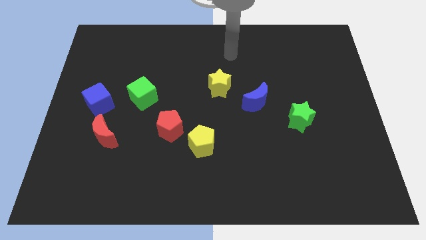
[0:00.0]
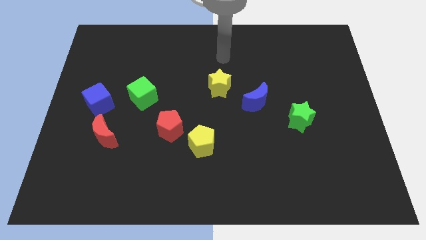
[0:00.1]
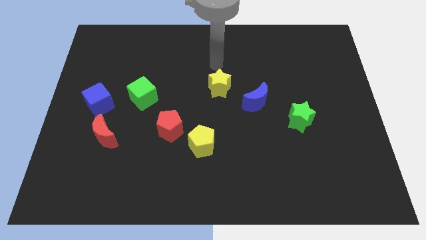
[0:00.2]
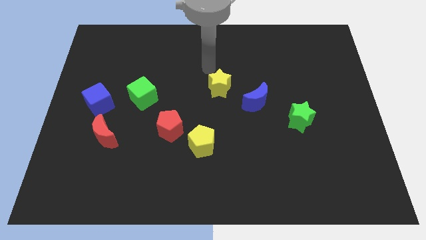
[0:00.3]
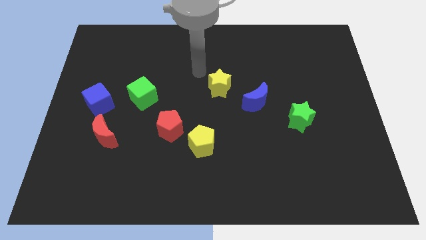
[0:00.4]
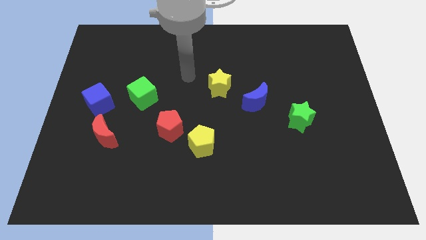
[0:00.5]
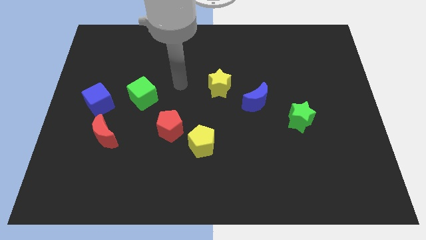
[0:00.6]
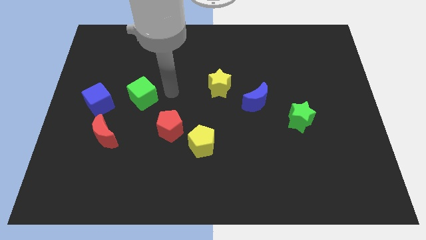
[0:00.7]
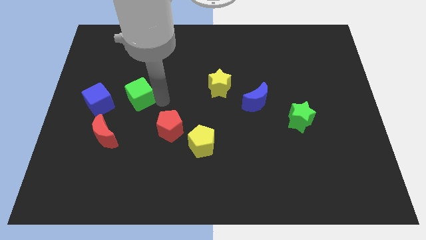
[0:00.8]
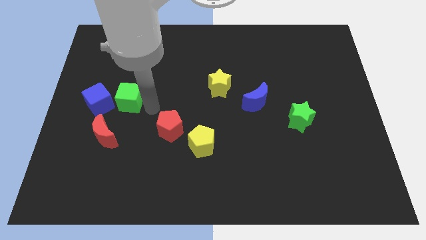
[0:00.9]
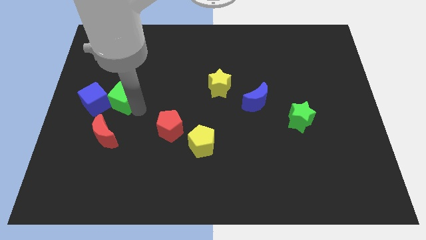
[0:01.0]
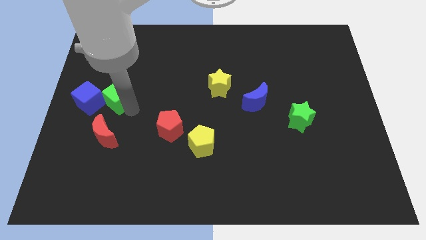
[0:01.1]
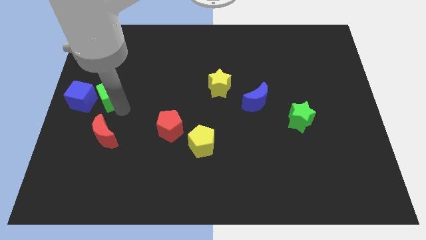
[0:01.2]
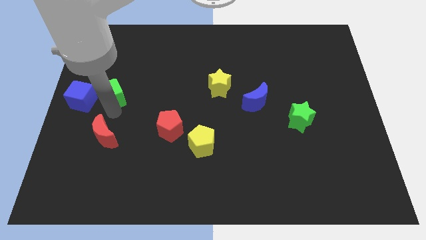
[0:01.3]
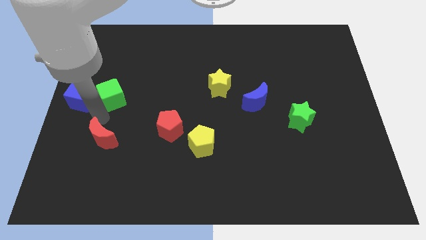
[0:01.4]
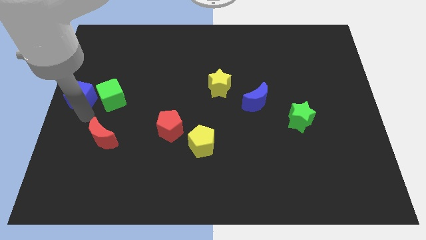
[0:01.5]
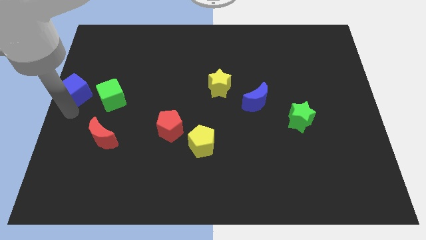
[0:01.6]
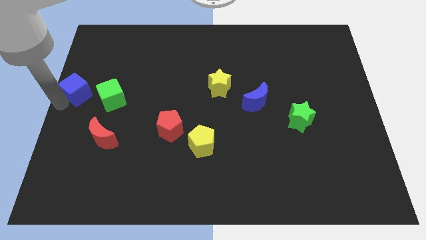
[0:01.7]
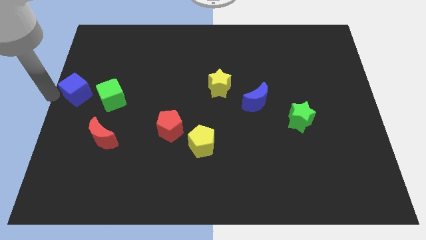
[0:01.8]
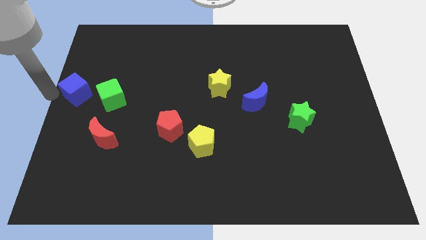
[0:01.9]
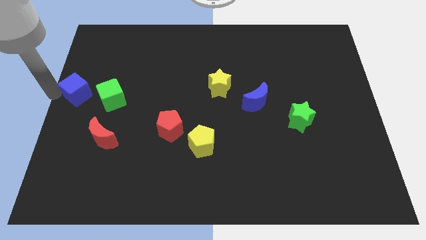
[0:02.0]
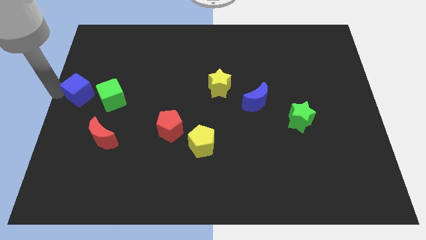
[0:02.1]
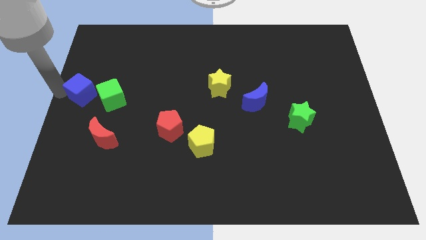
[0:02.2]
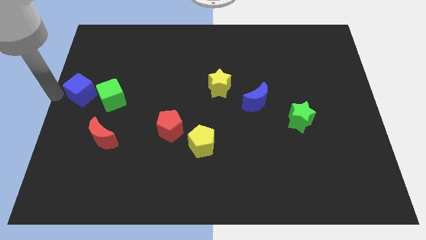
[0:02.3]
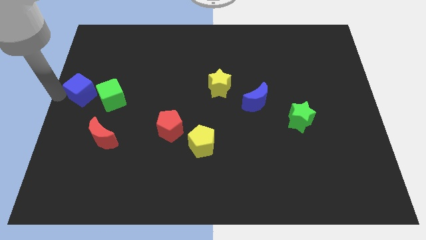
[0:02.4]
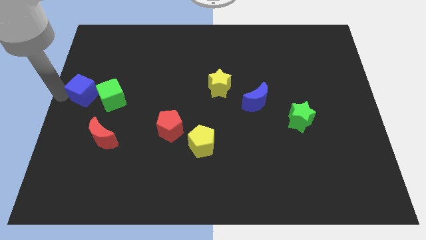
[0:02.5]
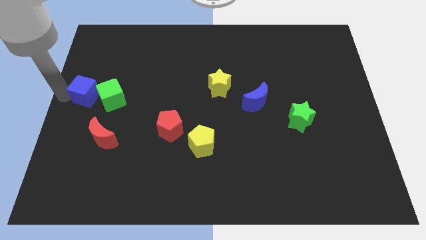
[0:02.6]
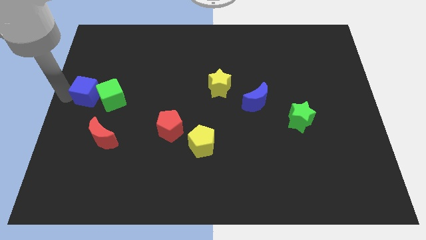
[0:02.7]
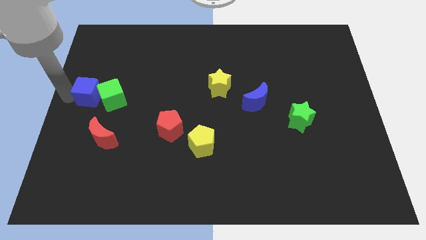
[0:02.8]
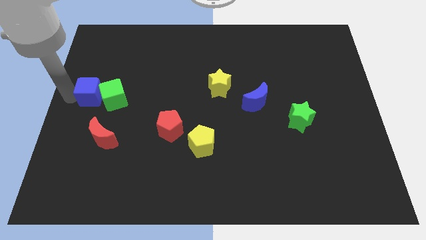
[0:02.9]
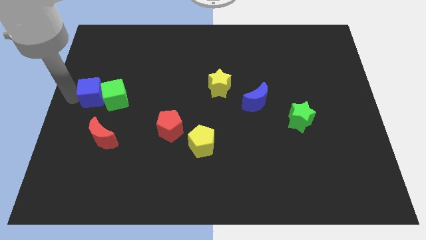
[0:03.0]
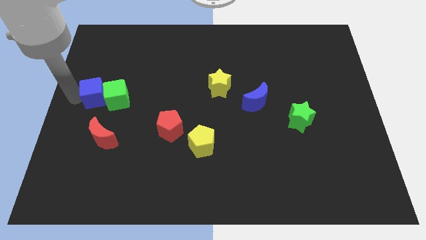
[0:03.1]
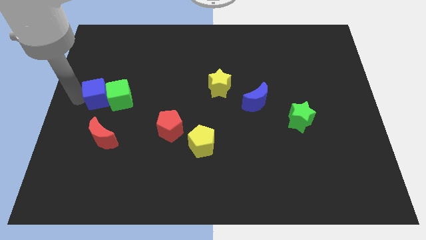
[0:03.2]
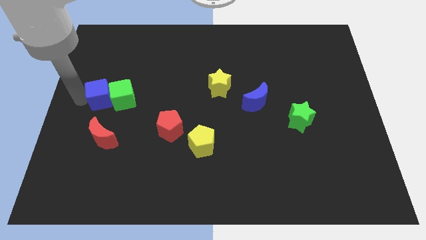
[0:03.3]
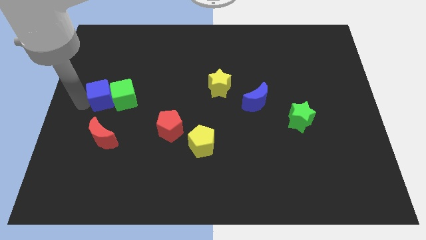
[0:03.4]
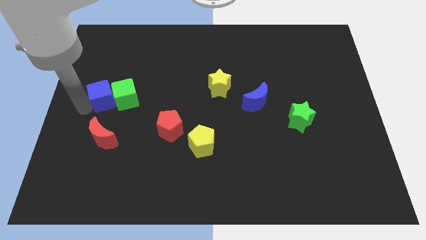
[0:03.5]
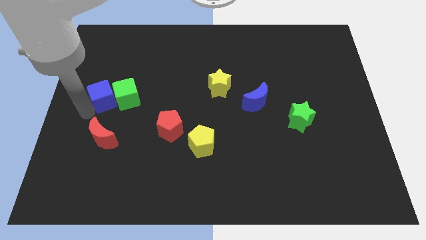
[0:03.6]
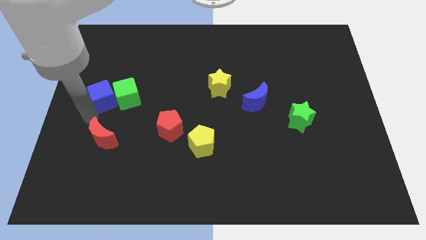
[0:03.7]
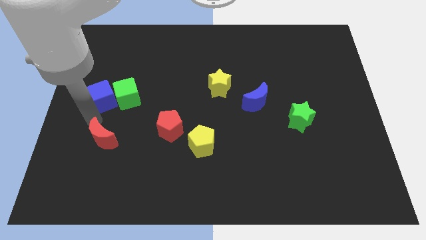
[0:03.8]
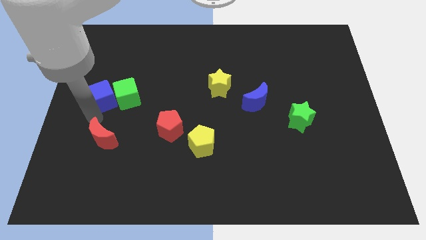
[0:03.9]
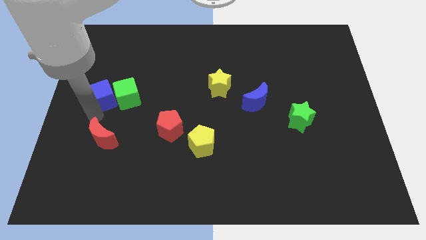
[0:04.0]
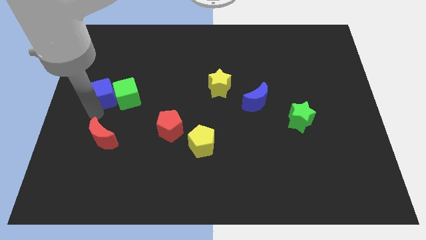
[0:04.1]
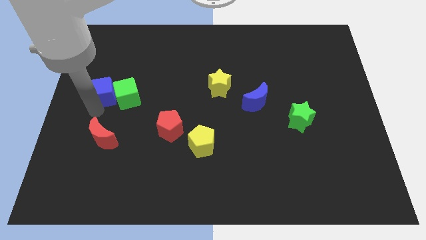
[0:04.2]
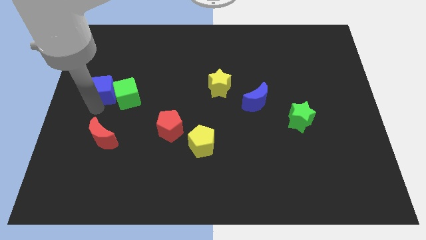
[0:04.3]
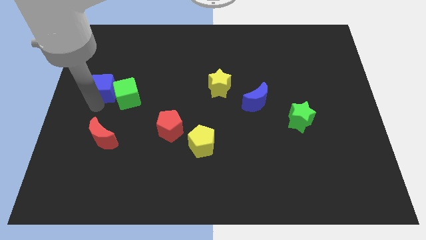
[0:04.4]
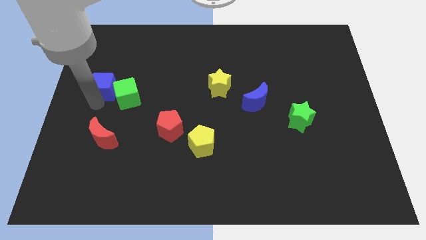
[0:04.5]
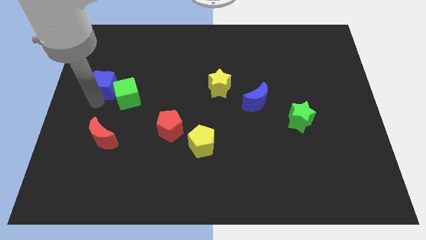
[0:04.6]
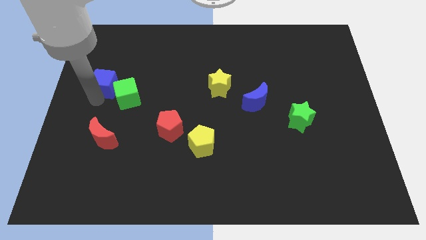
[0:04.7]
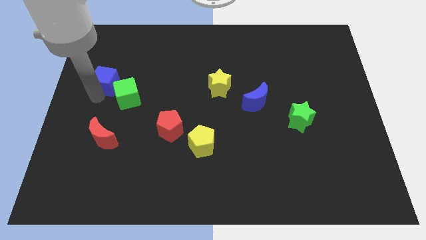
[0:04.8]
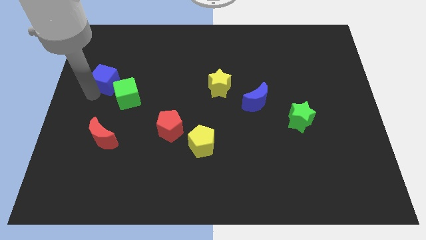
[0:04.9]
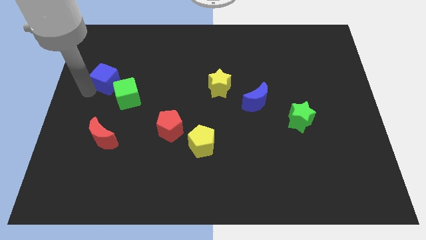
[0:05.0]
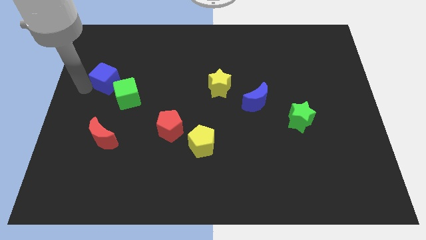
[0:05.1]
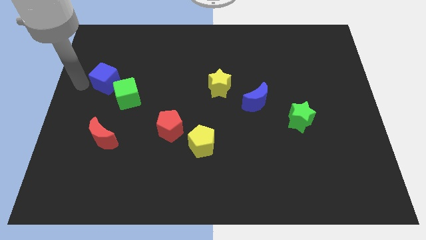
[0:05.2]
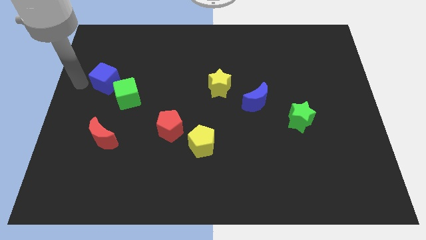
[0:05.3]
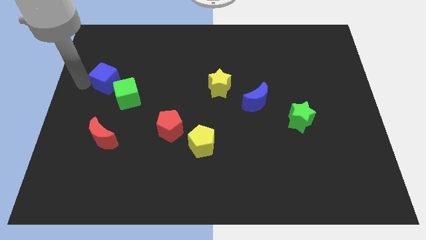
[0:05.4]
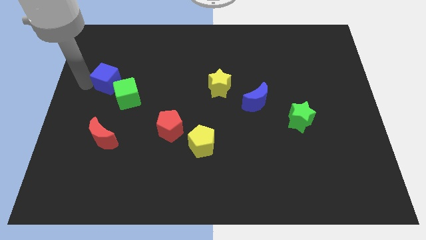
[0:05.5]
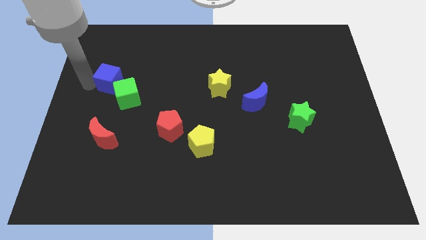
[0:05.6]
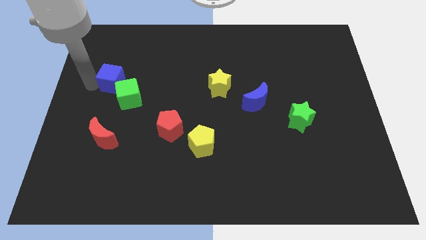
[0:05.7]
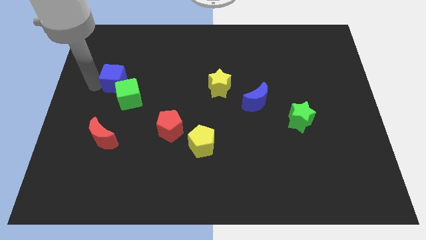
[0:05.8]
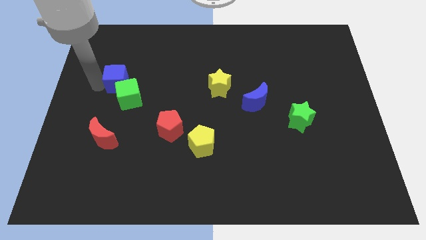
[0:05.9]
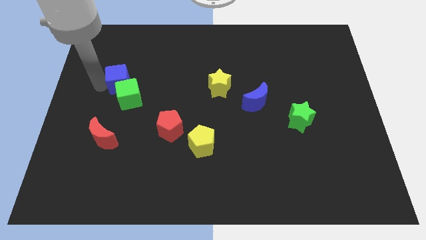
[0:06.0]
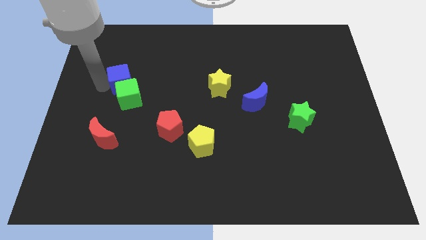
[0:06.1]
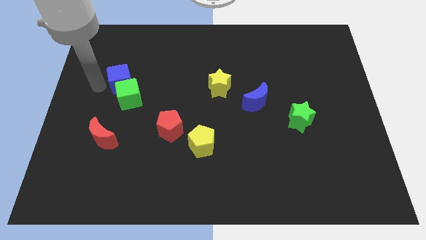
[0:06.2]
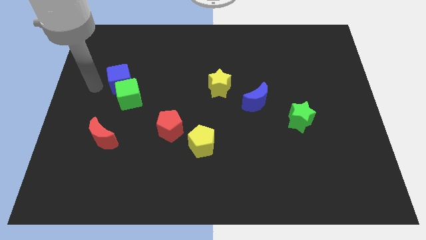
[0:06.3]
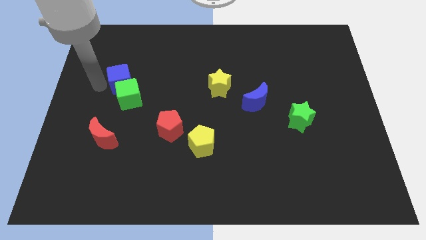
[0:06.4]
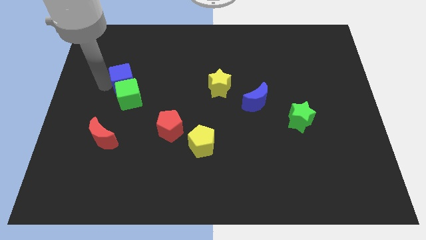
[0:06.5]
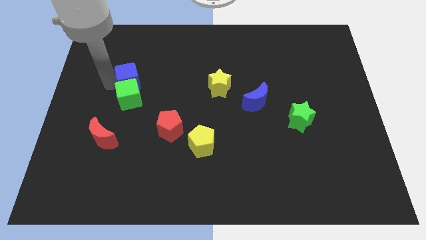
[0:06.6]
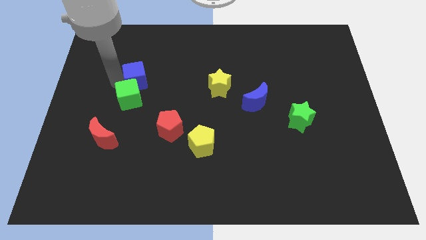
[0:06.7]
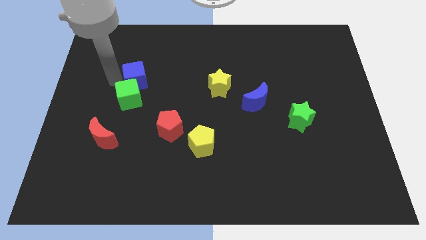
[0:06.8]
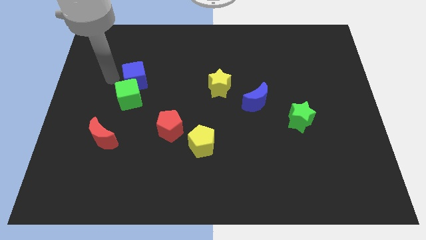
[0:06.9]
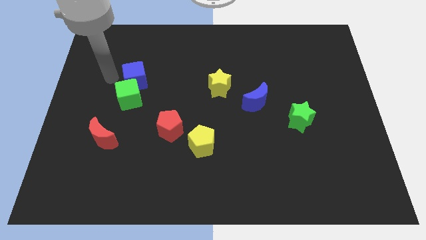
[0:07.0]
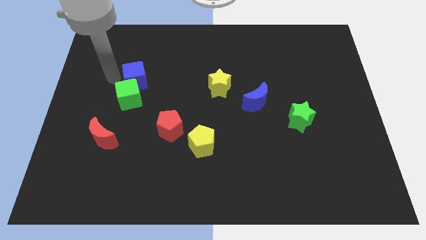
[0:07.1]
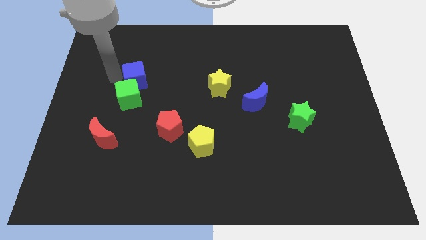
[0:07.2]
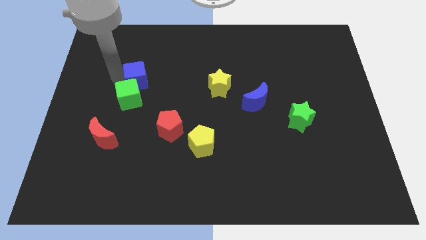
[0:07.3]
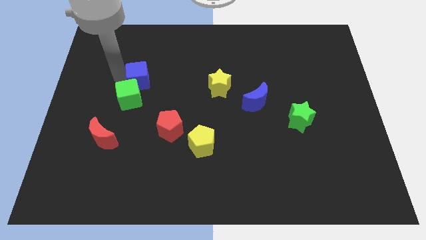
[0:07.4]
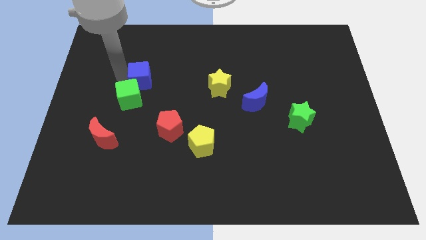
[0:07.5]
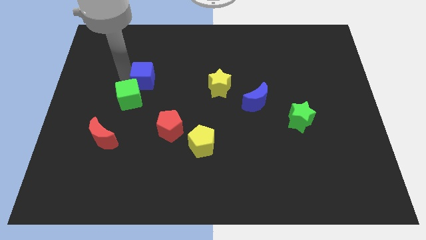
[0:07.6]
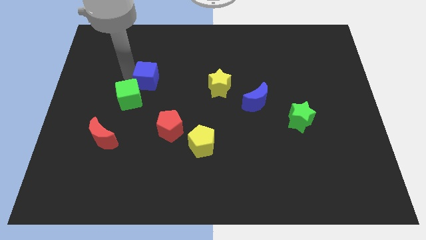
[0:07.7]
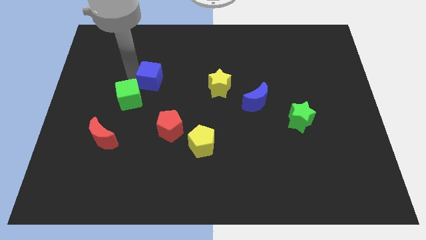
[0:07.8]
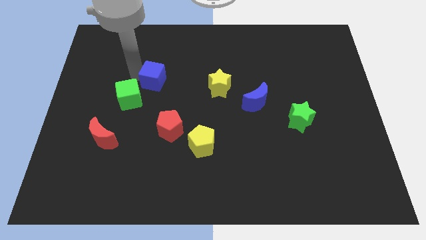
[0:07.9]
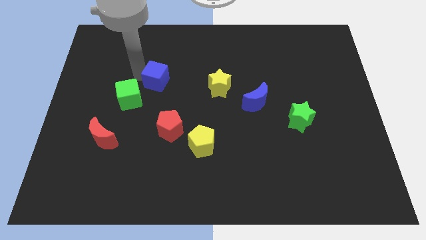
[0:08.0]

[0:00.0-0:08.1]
slide the blue cube to the left side of the yellow star
